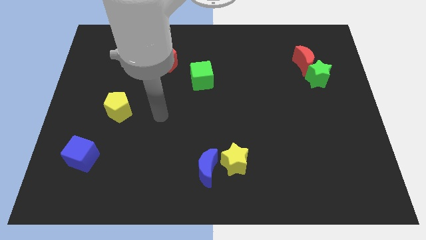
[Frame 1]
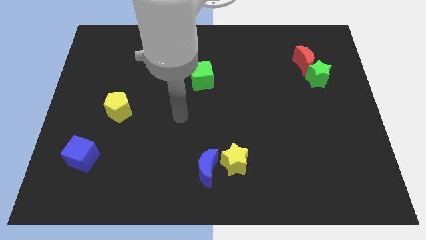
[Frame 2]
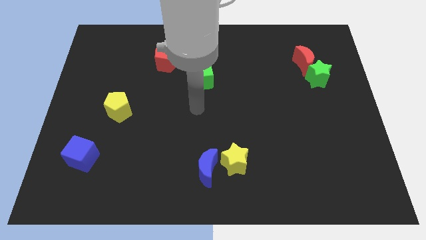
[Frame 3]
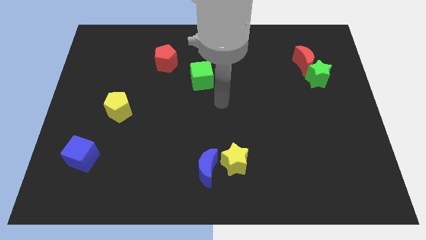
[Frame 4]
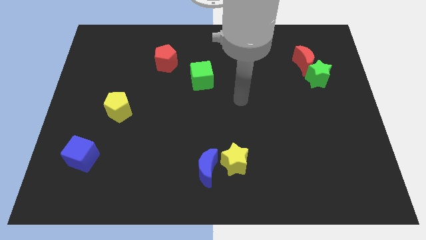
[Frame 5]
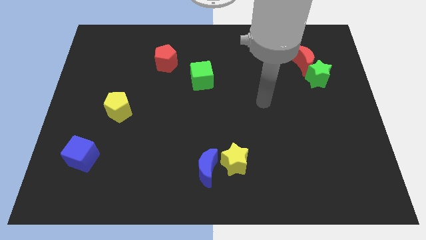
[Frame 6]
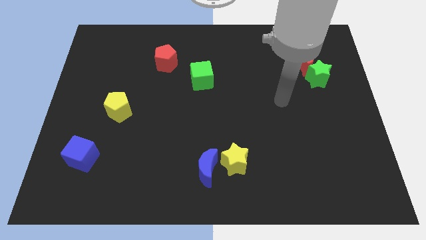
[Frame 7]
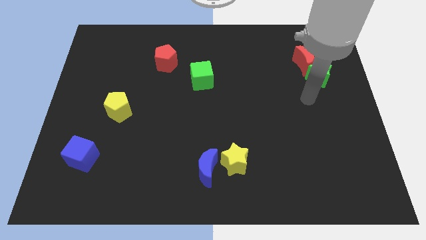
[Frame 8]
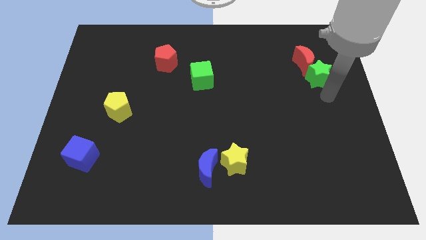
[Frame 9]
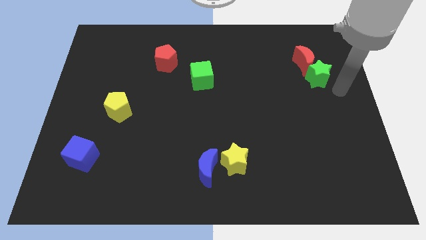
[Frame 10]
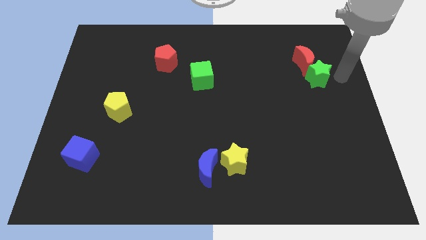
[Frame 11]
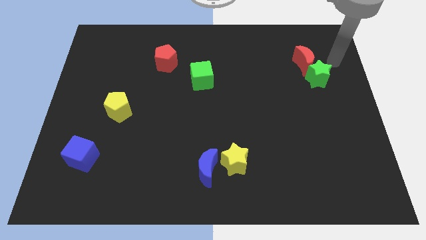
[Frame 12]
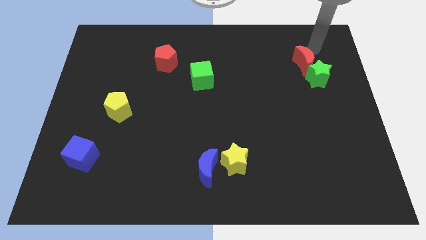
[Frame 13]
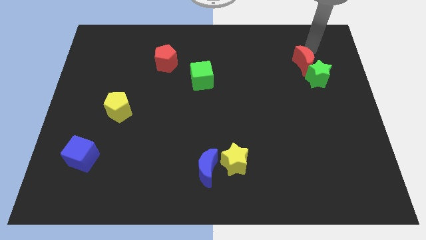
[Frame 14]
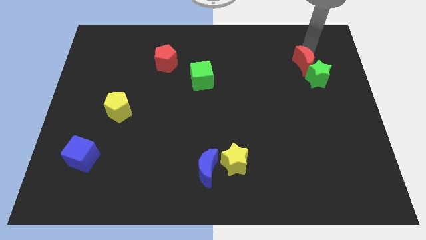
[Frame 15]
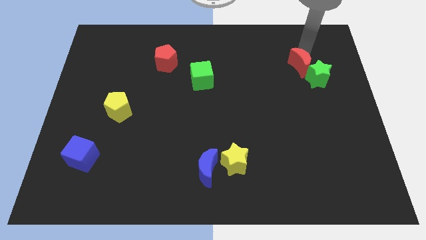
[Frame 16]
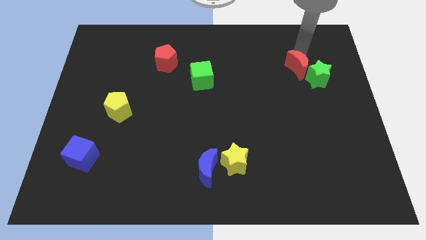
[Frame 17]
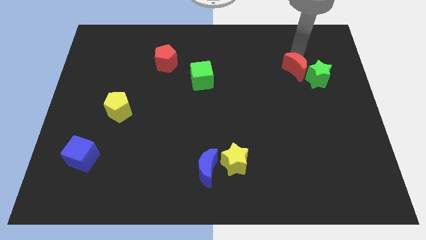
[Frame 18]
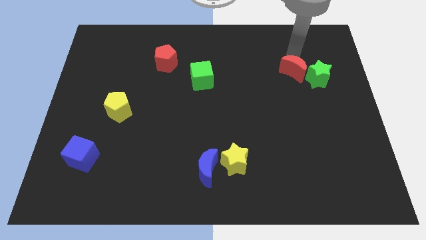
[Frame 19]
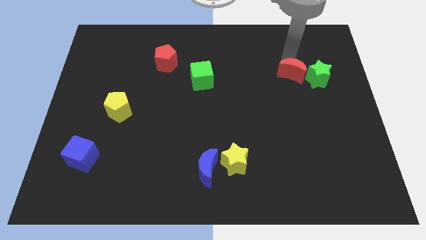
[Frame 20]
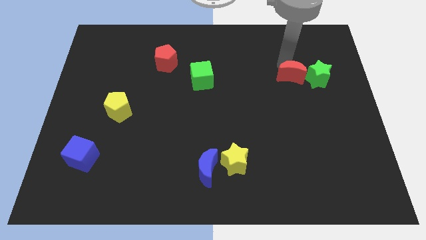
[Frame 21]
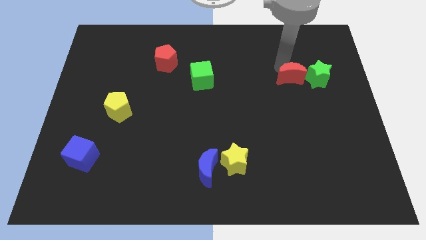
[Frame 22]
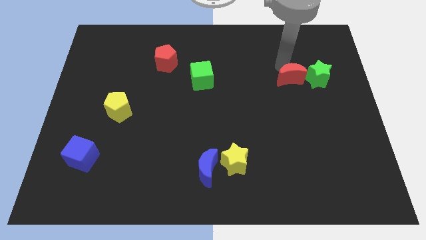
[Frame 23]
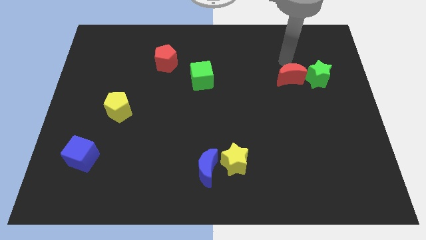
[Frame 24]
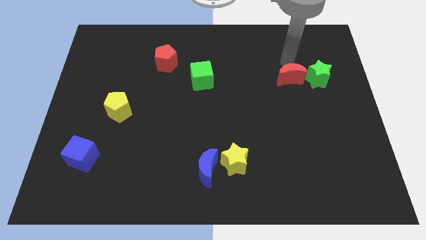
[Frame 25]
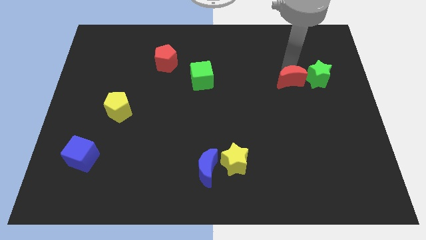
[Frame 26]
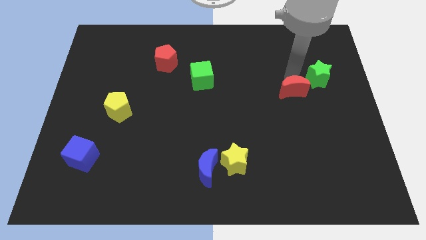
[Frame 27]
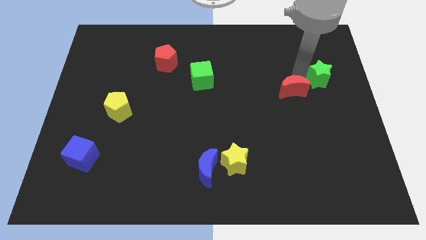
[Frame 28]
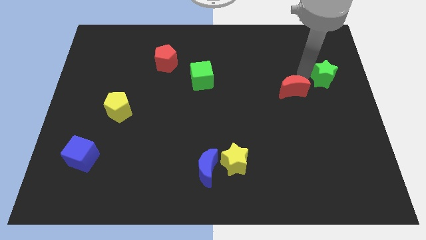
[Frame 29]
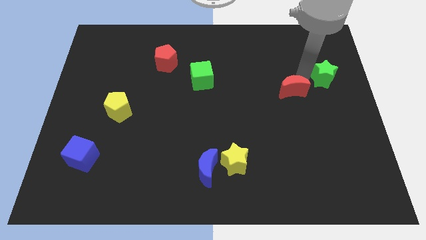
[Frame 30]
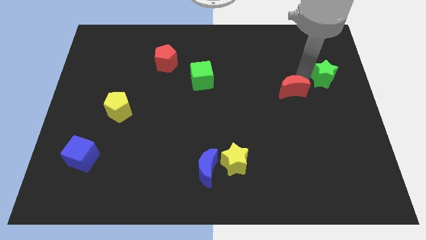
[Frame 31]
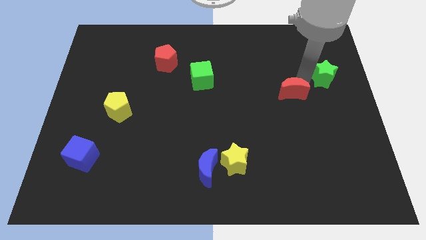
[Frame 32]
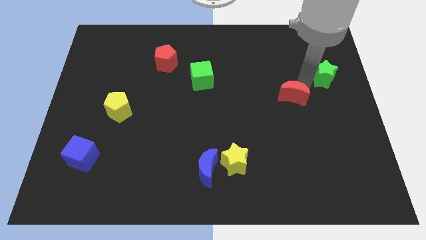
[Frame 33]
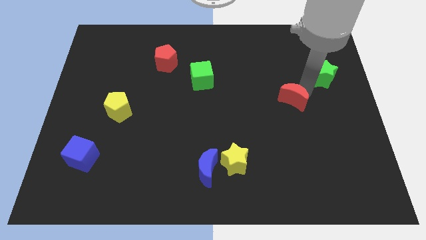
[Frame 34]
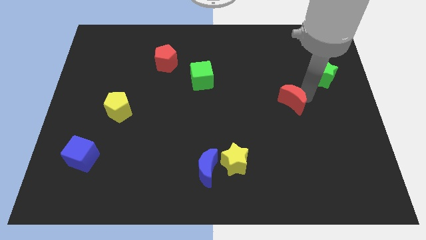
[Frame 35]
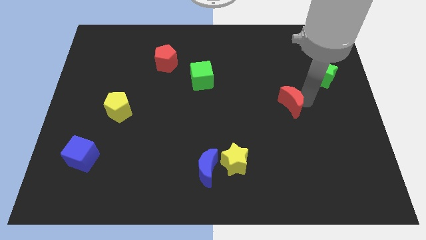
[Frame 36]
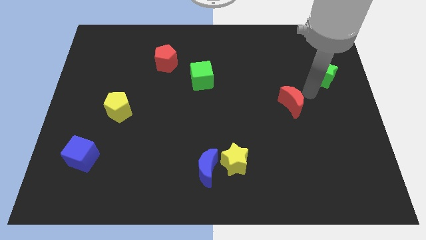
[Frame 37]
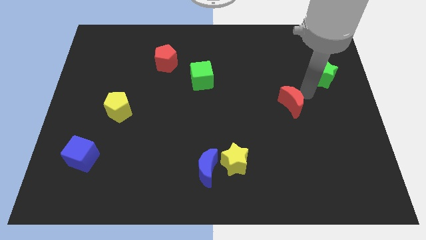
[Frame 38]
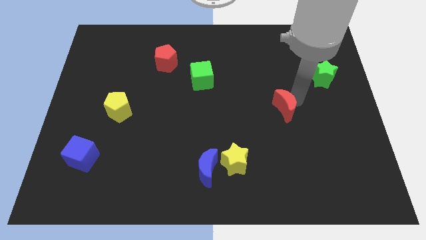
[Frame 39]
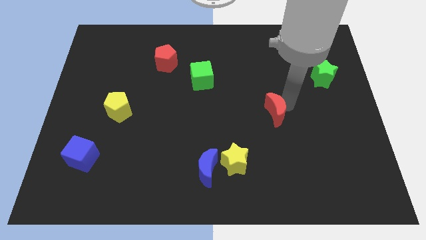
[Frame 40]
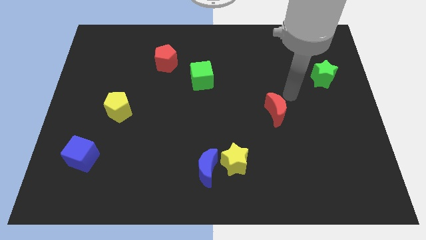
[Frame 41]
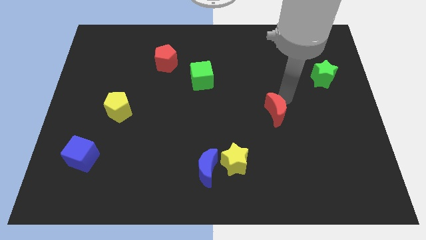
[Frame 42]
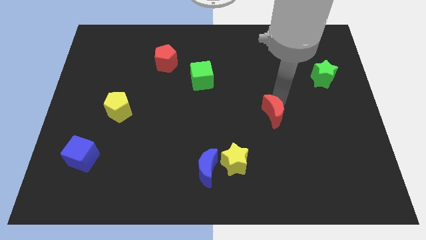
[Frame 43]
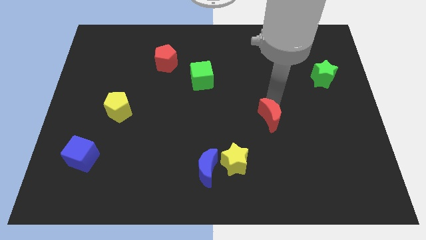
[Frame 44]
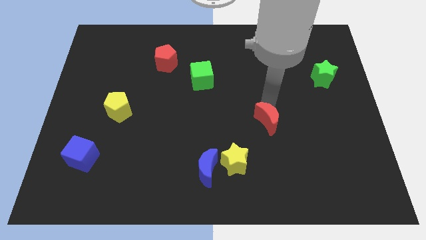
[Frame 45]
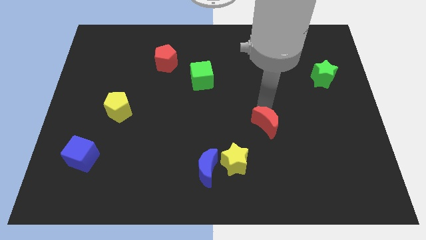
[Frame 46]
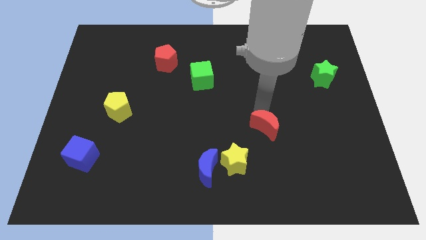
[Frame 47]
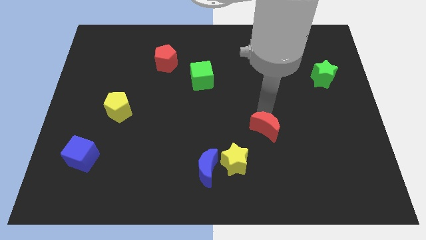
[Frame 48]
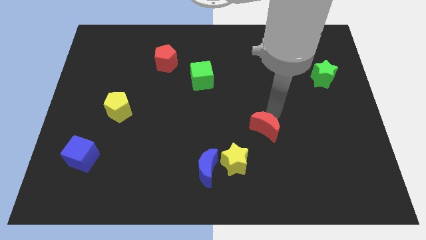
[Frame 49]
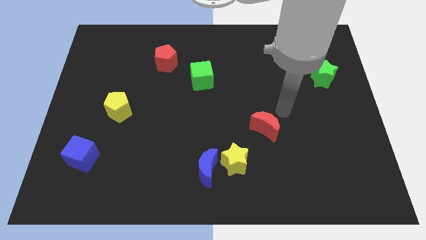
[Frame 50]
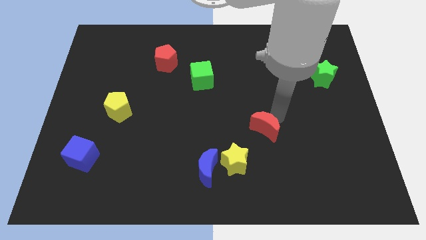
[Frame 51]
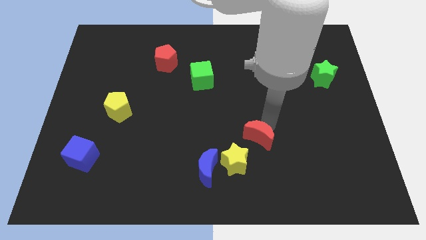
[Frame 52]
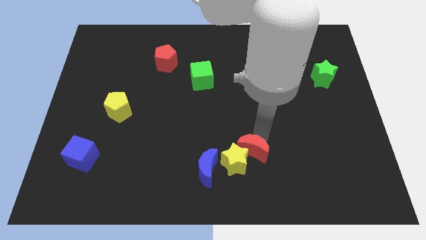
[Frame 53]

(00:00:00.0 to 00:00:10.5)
slide the red moon to the yellow star

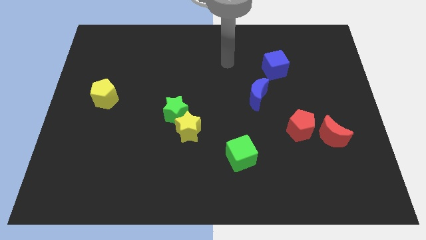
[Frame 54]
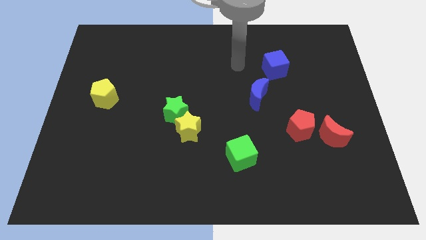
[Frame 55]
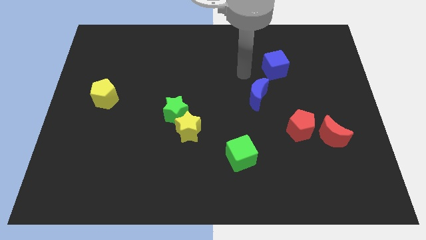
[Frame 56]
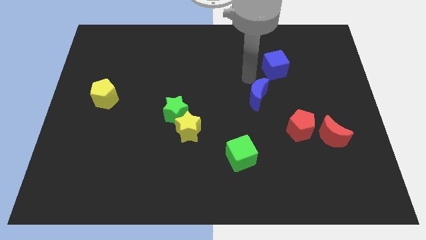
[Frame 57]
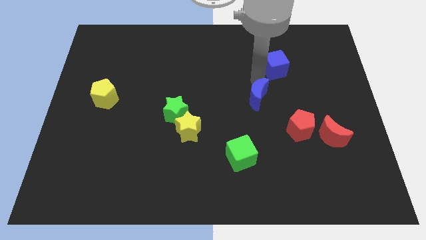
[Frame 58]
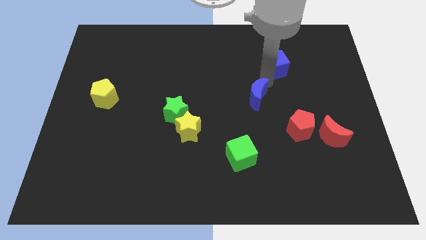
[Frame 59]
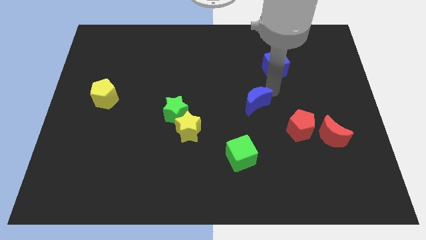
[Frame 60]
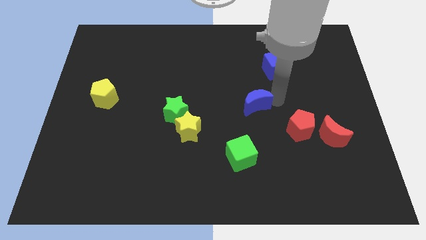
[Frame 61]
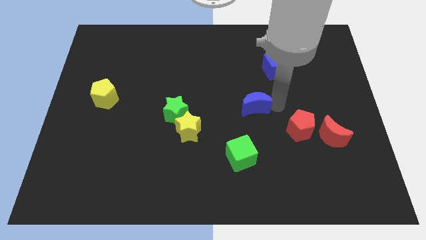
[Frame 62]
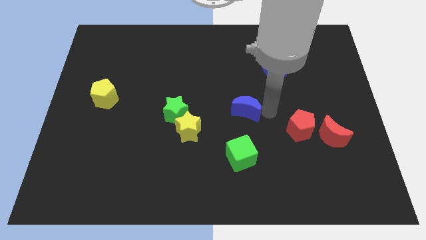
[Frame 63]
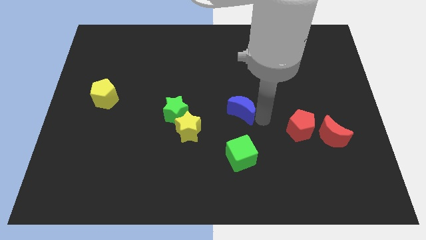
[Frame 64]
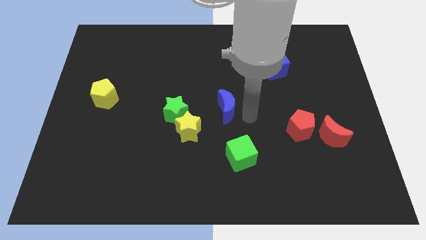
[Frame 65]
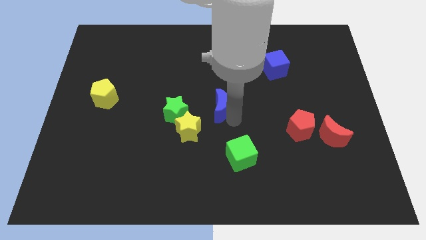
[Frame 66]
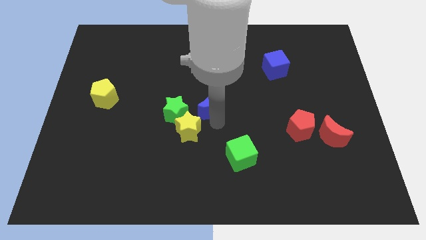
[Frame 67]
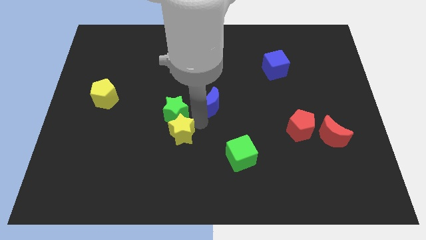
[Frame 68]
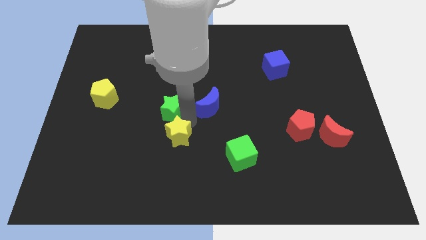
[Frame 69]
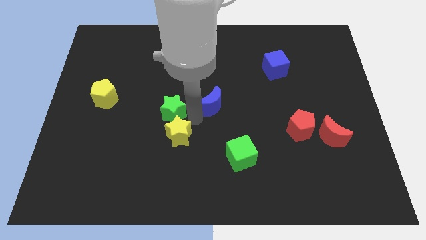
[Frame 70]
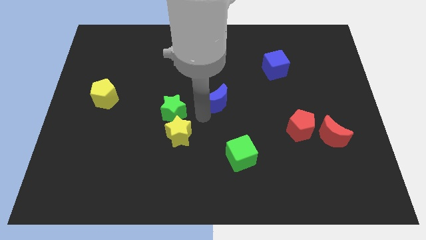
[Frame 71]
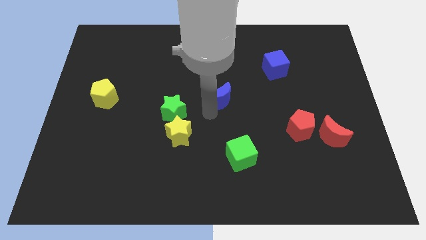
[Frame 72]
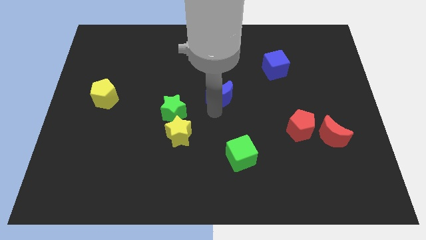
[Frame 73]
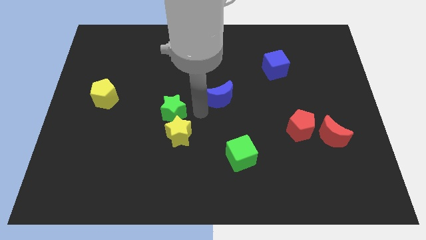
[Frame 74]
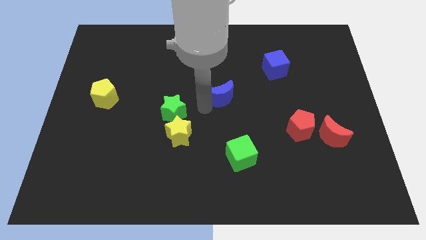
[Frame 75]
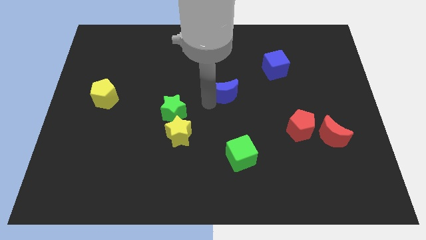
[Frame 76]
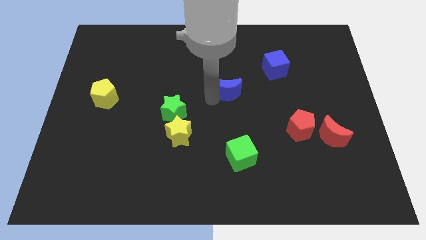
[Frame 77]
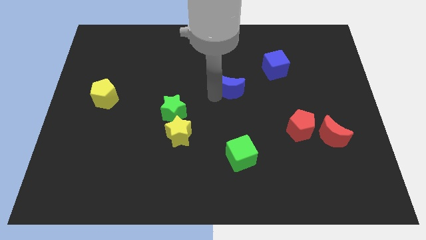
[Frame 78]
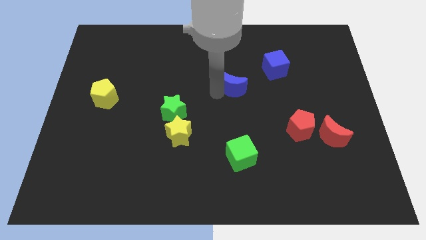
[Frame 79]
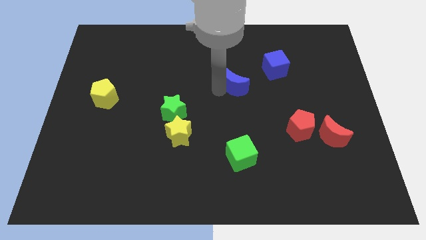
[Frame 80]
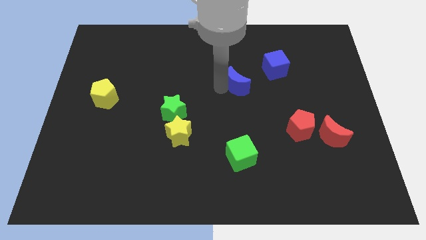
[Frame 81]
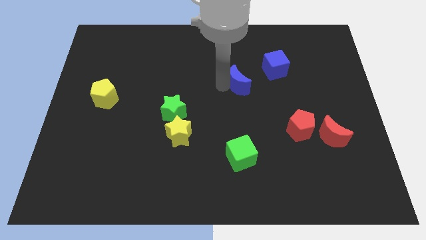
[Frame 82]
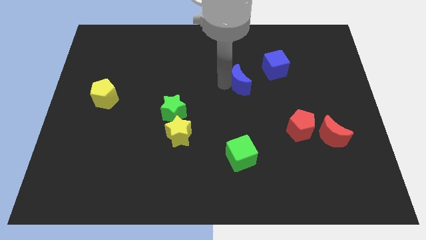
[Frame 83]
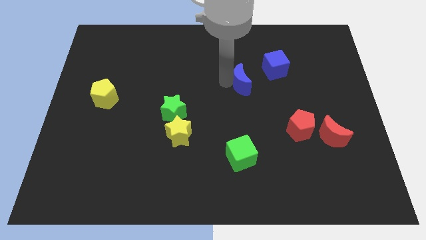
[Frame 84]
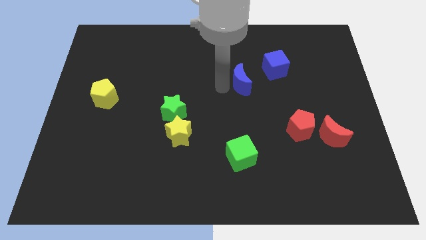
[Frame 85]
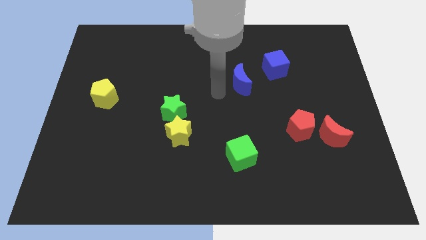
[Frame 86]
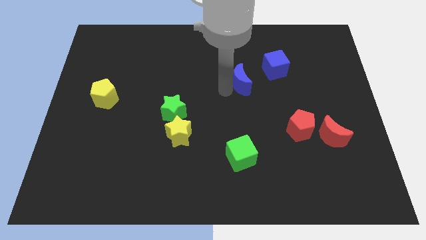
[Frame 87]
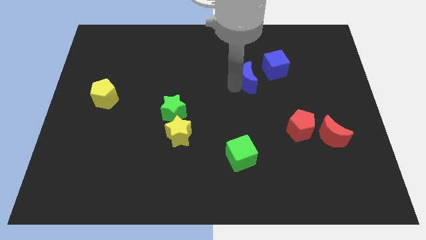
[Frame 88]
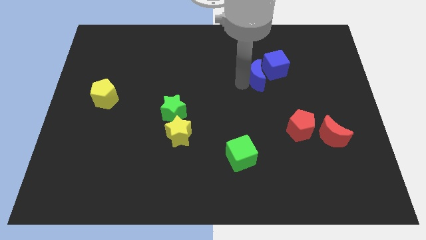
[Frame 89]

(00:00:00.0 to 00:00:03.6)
move the blue moon close to the blue cube
